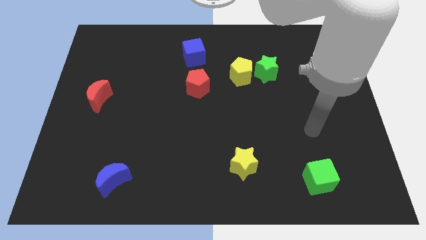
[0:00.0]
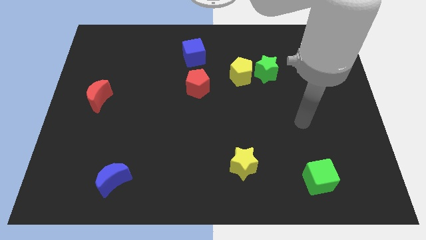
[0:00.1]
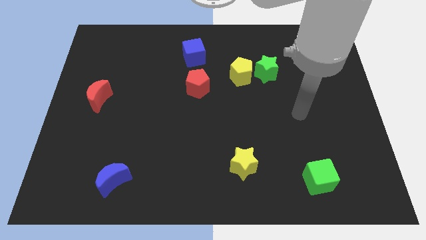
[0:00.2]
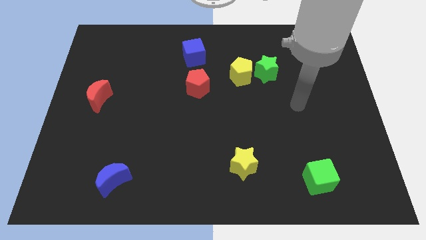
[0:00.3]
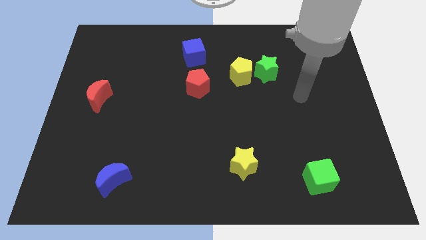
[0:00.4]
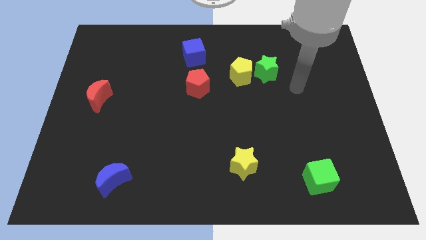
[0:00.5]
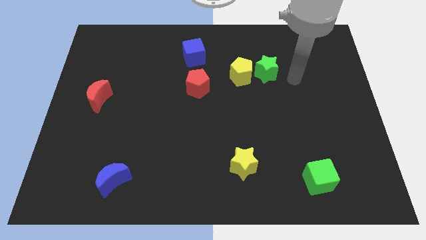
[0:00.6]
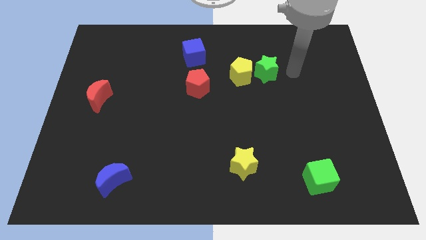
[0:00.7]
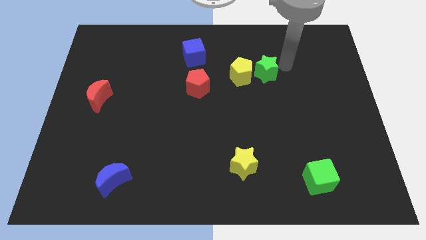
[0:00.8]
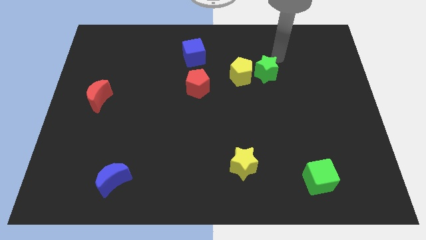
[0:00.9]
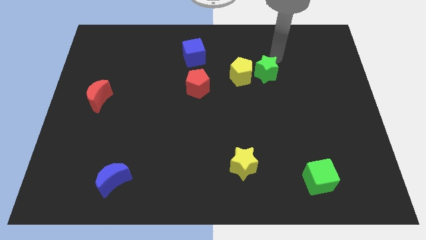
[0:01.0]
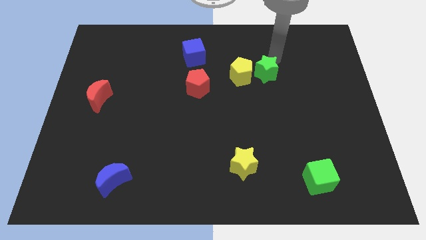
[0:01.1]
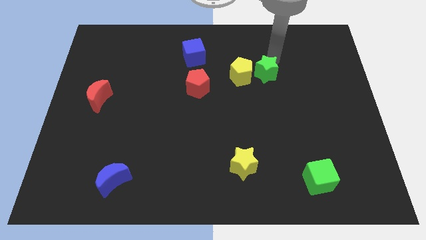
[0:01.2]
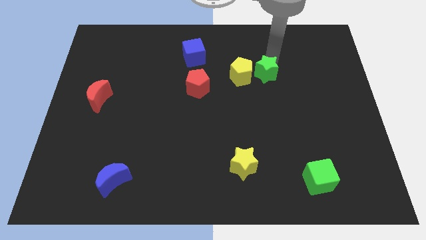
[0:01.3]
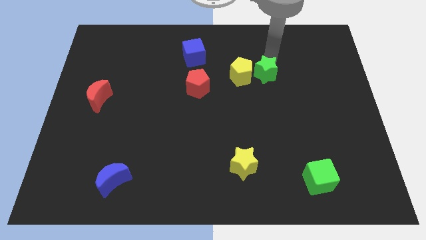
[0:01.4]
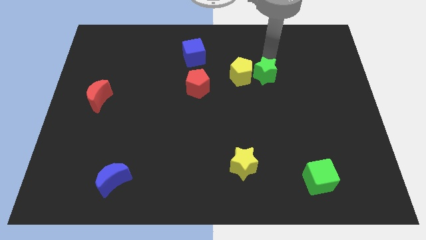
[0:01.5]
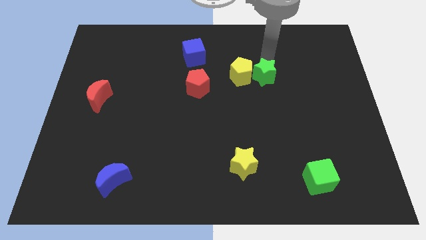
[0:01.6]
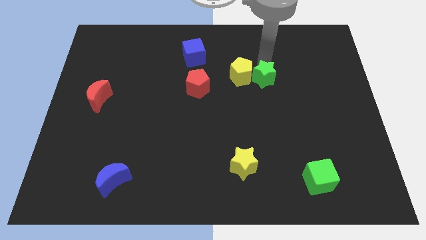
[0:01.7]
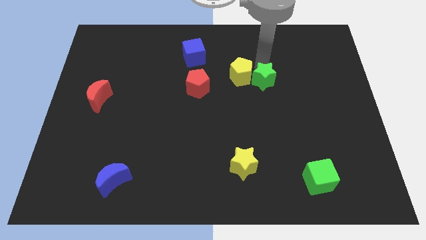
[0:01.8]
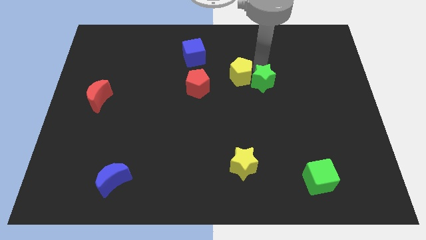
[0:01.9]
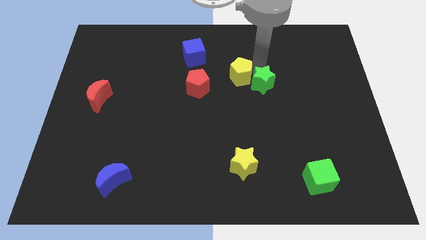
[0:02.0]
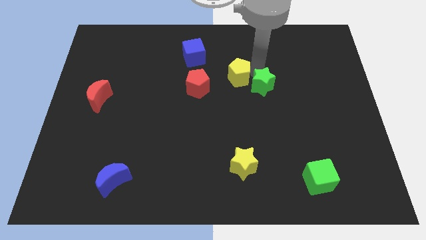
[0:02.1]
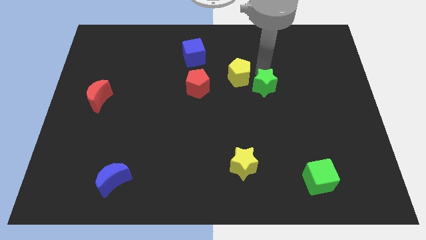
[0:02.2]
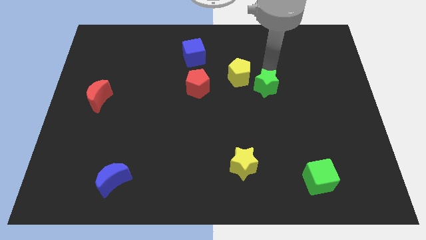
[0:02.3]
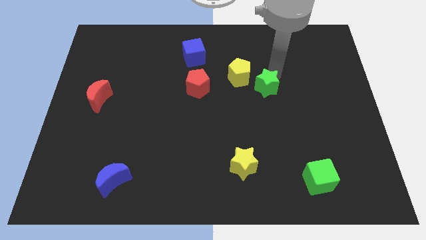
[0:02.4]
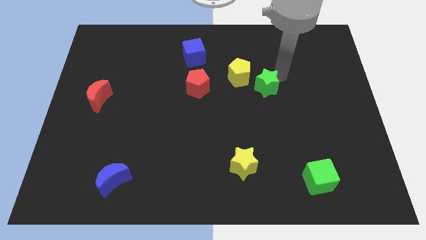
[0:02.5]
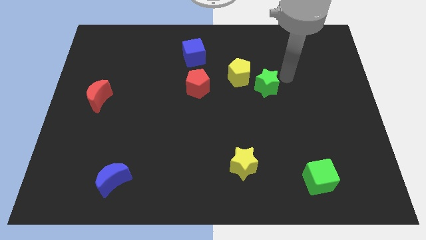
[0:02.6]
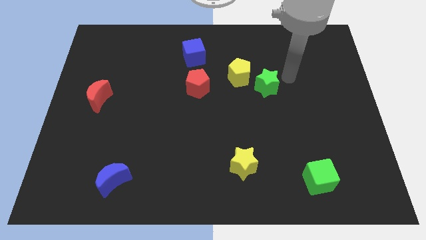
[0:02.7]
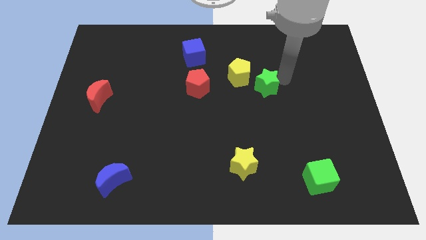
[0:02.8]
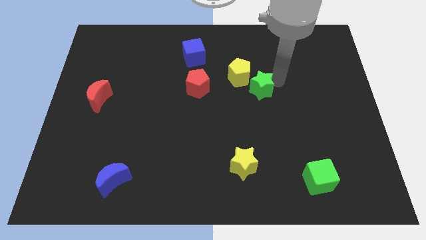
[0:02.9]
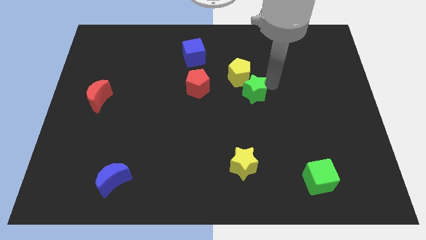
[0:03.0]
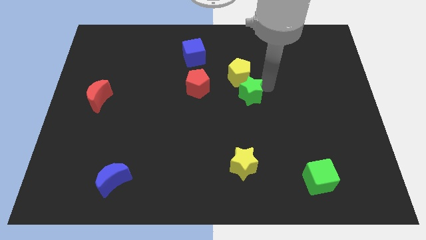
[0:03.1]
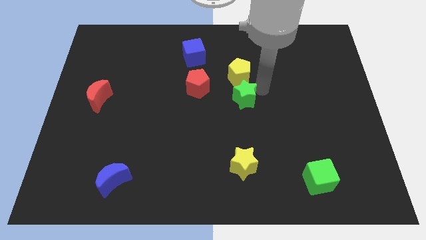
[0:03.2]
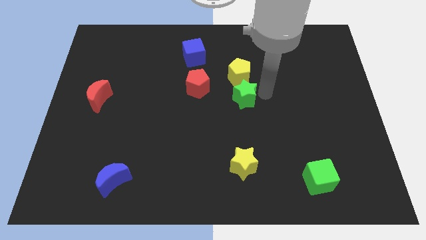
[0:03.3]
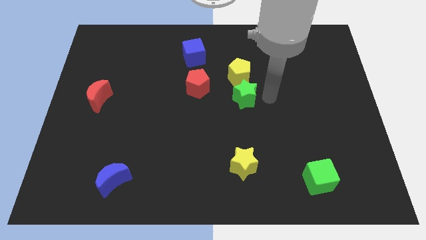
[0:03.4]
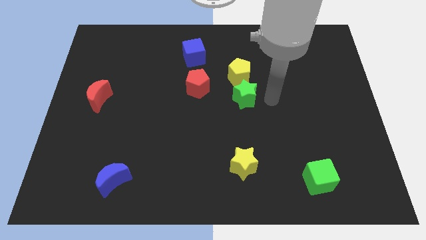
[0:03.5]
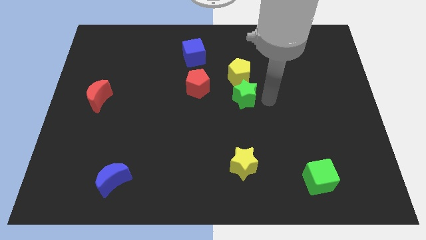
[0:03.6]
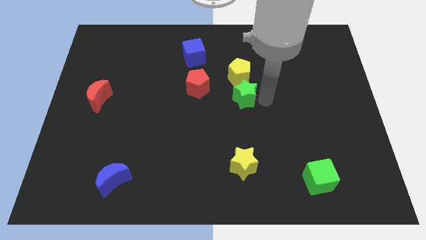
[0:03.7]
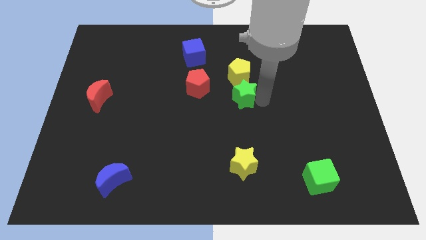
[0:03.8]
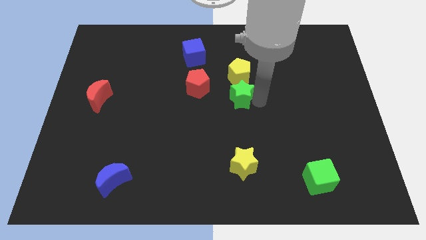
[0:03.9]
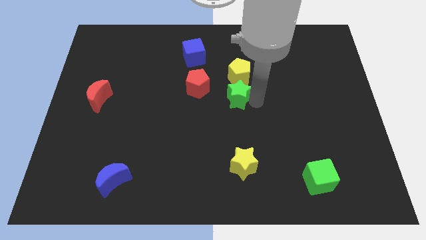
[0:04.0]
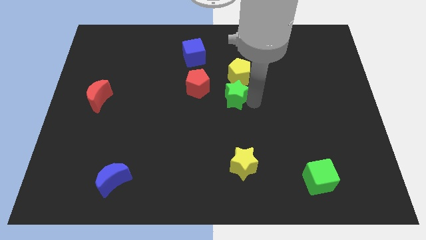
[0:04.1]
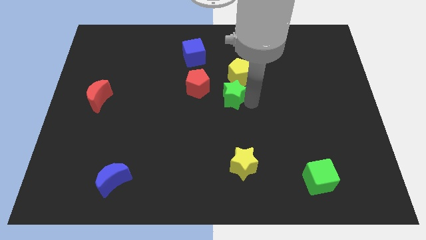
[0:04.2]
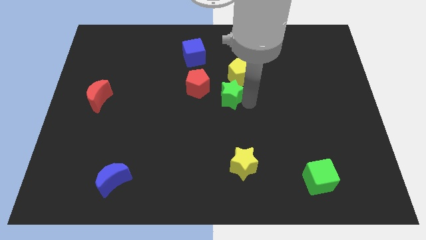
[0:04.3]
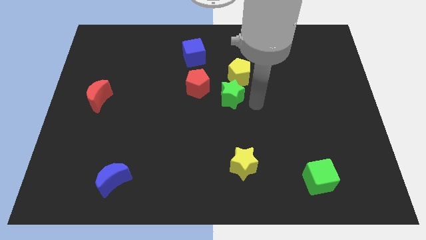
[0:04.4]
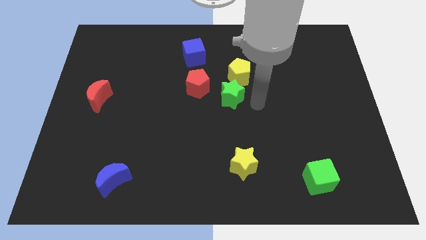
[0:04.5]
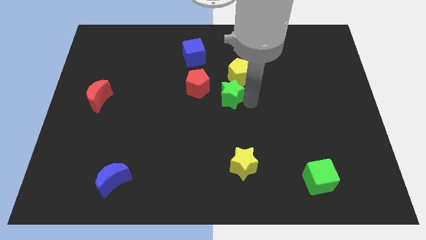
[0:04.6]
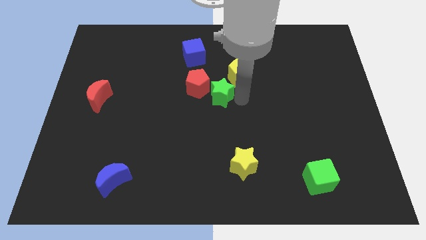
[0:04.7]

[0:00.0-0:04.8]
slide the green star next to the red pentagon

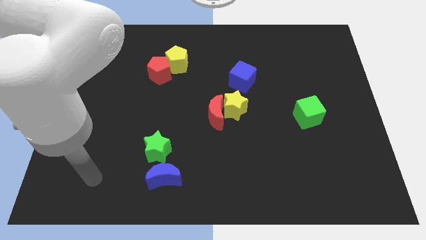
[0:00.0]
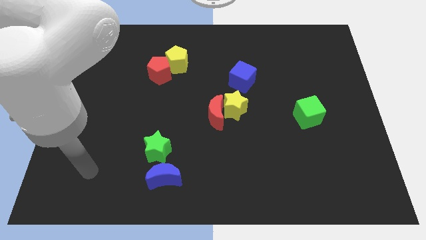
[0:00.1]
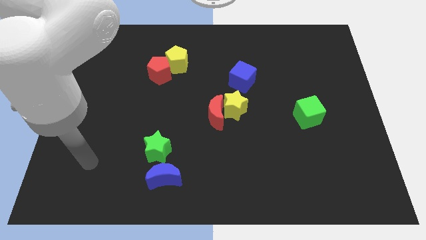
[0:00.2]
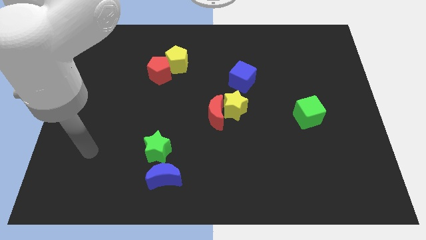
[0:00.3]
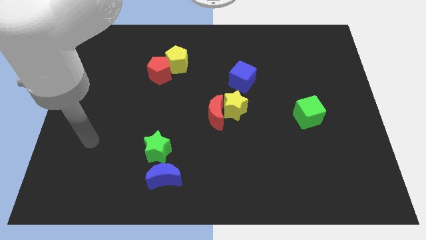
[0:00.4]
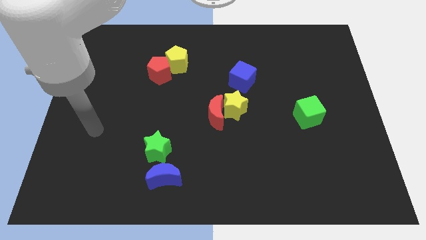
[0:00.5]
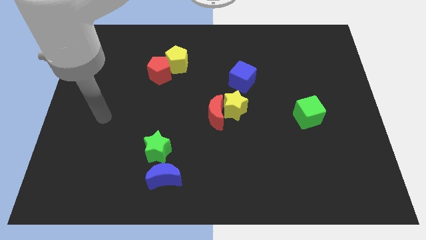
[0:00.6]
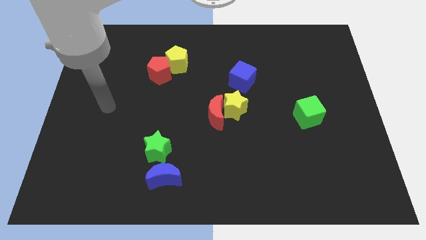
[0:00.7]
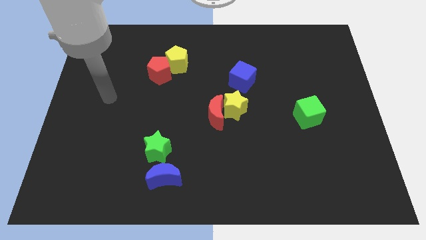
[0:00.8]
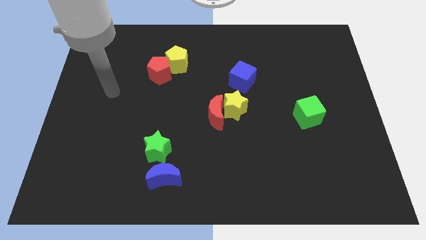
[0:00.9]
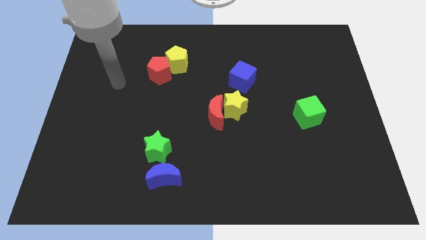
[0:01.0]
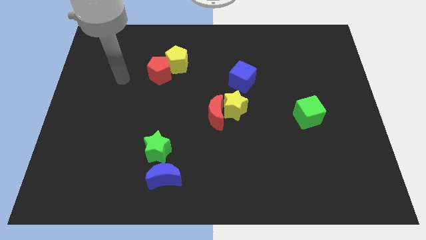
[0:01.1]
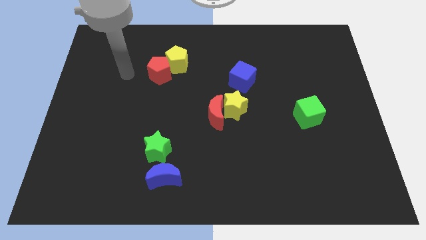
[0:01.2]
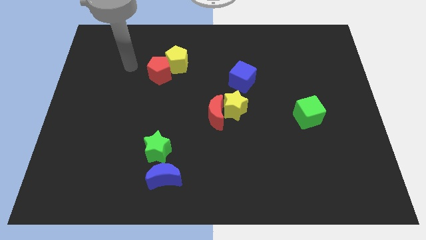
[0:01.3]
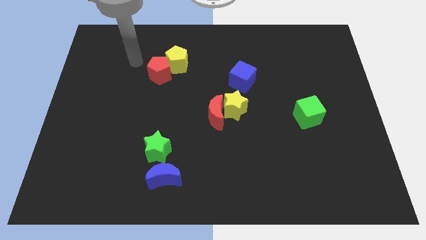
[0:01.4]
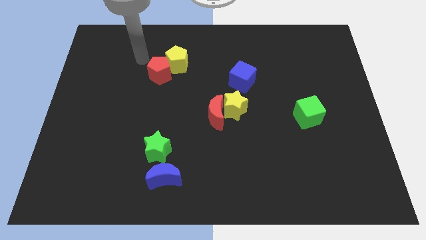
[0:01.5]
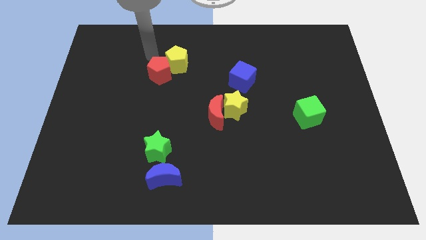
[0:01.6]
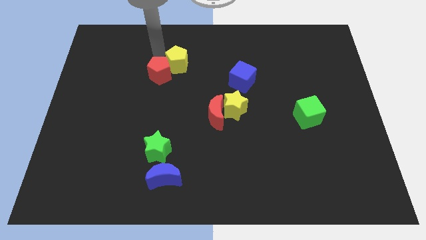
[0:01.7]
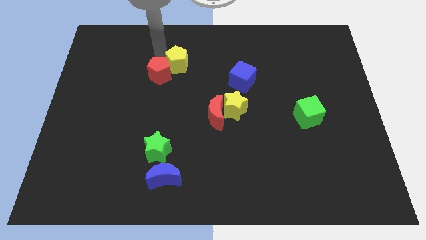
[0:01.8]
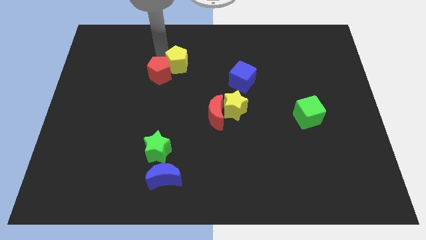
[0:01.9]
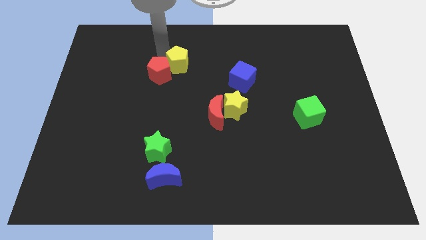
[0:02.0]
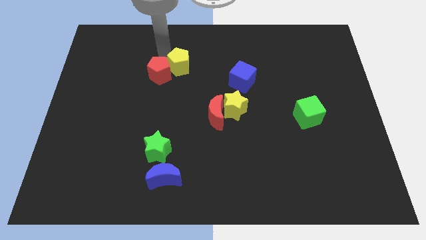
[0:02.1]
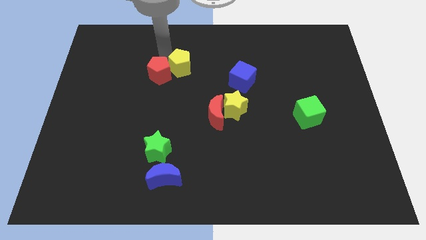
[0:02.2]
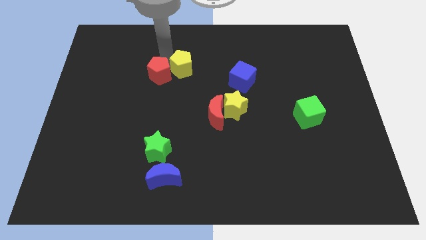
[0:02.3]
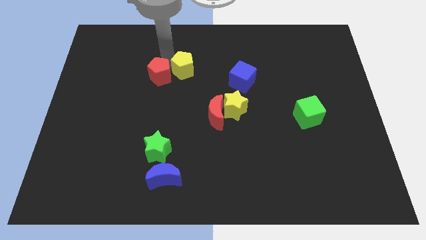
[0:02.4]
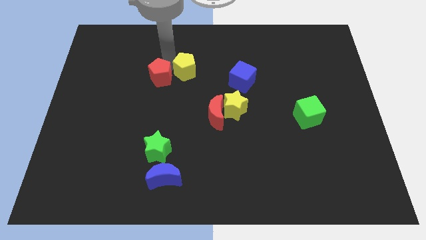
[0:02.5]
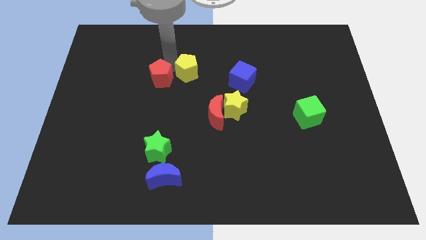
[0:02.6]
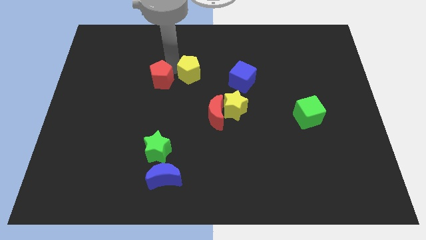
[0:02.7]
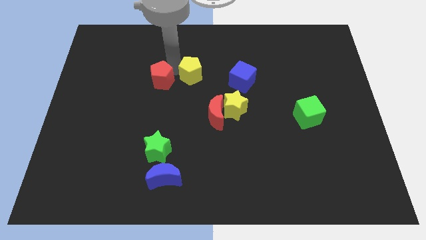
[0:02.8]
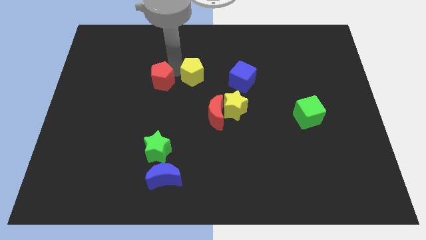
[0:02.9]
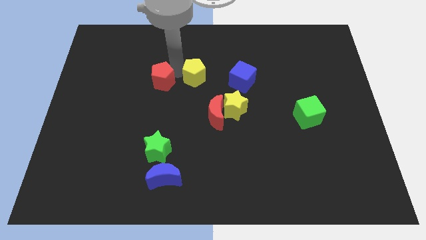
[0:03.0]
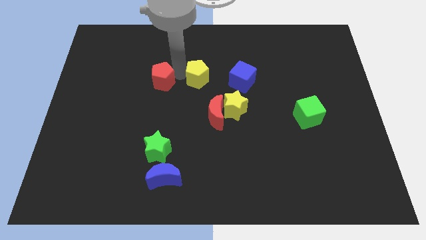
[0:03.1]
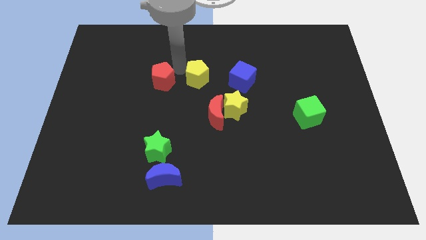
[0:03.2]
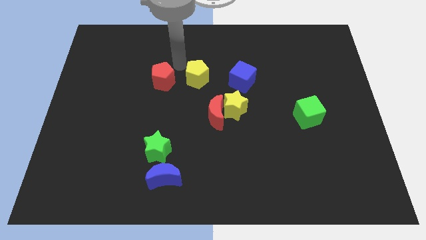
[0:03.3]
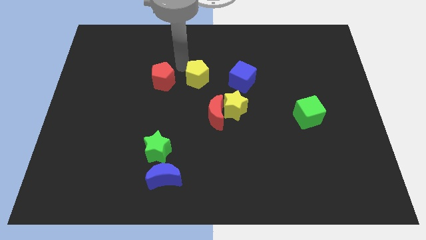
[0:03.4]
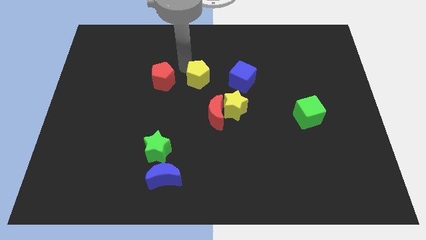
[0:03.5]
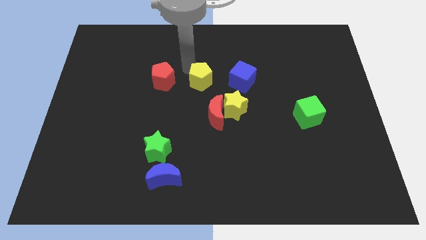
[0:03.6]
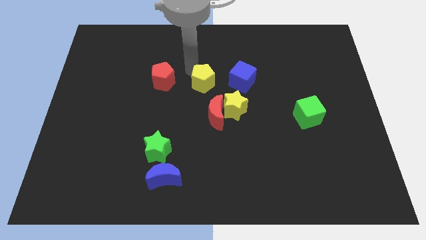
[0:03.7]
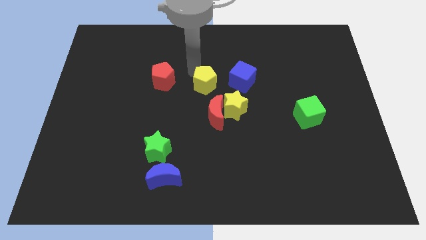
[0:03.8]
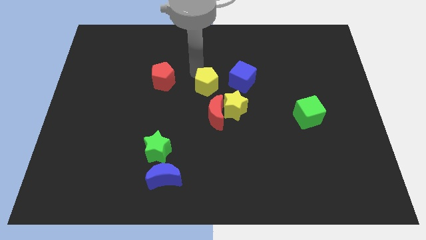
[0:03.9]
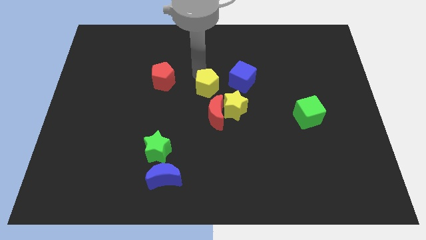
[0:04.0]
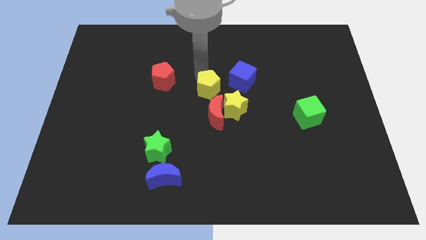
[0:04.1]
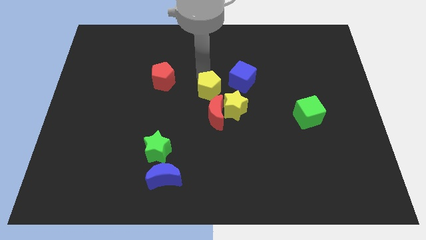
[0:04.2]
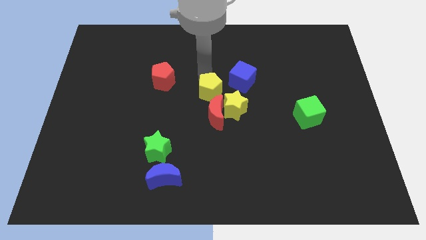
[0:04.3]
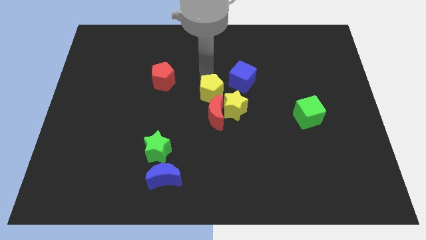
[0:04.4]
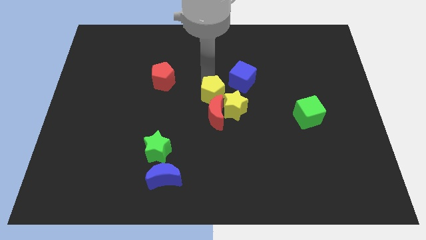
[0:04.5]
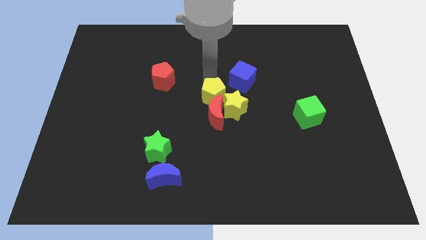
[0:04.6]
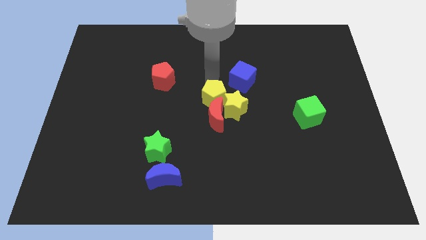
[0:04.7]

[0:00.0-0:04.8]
push the yellow pentagon next to the yellow star
